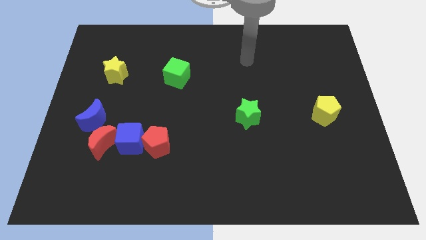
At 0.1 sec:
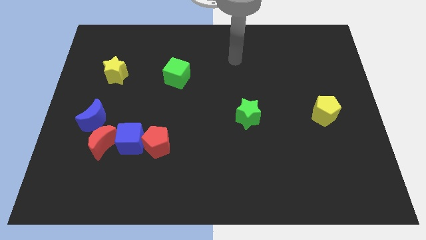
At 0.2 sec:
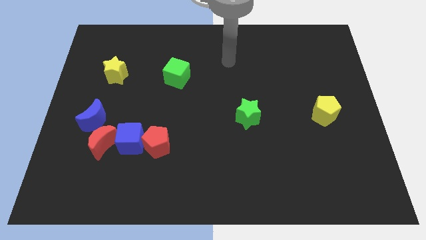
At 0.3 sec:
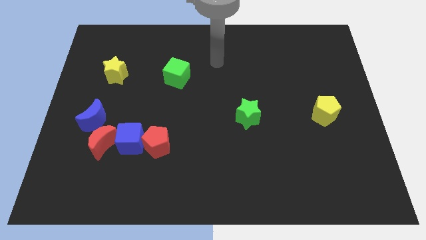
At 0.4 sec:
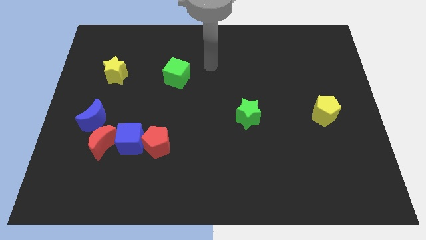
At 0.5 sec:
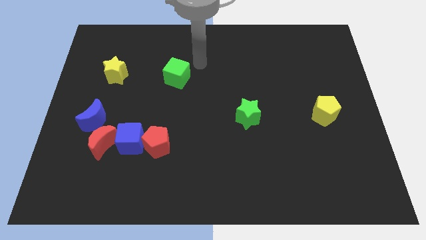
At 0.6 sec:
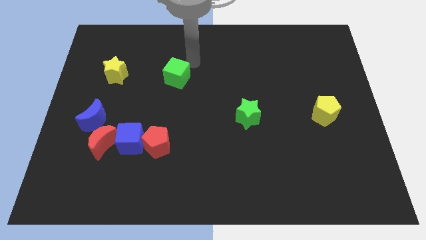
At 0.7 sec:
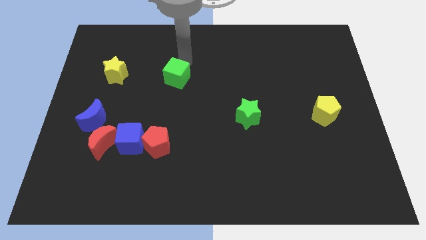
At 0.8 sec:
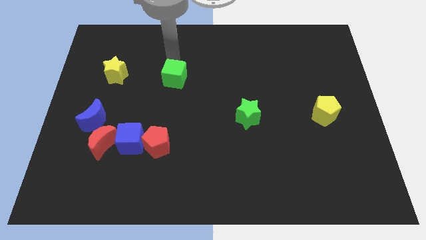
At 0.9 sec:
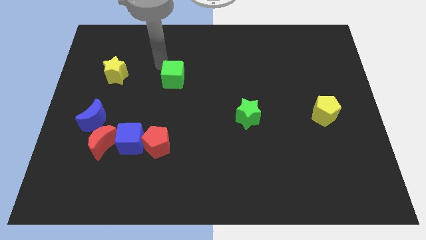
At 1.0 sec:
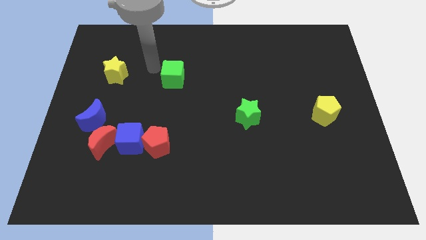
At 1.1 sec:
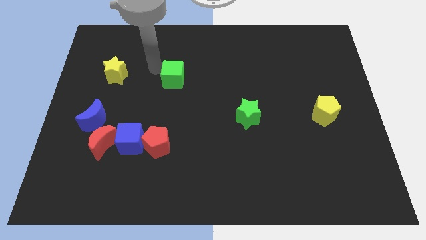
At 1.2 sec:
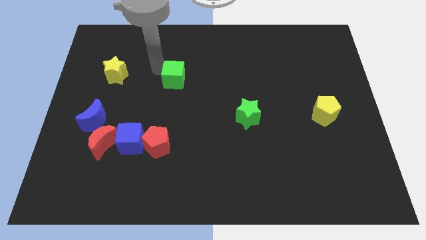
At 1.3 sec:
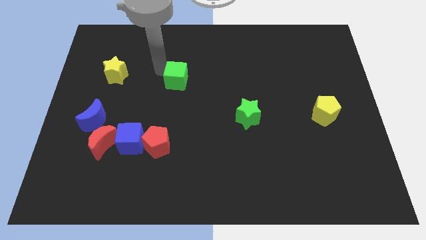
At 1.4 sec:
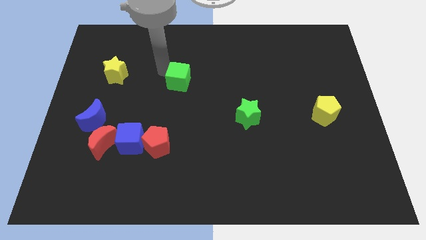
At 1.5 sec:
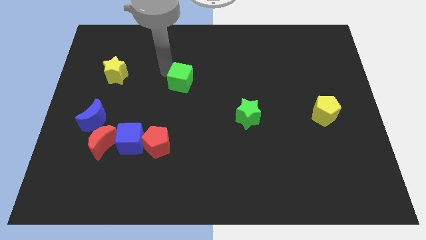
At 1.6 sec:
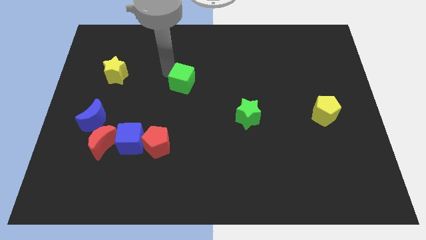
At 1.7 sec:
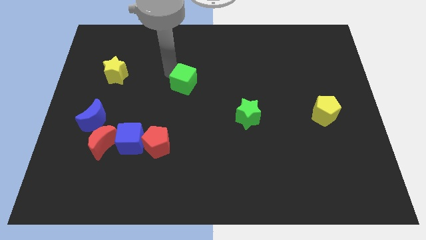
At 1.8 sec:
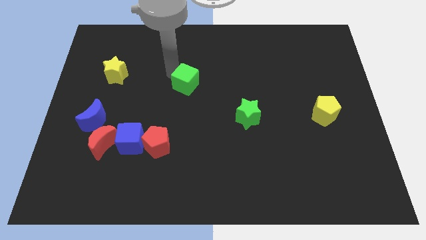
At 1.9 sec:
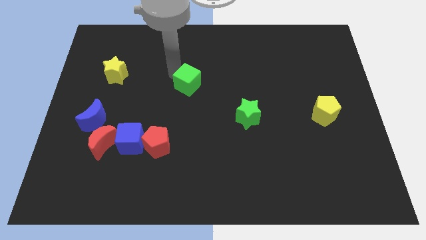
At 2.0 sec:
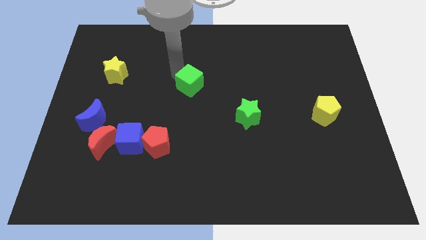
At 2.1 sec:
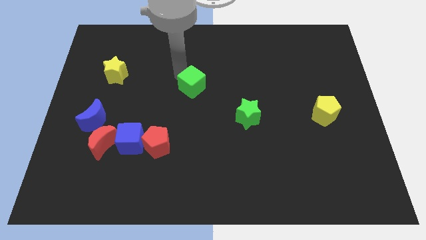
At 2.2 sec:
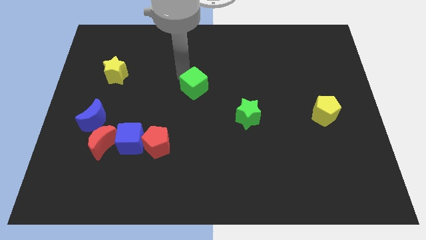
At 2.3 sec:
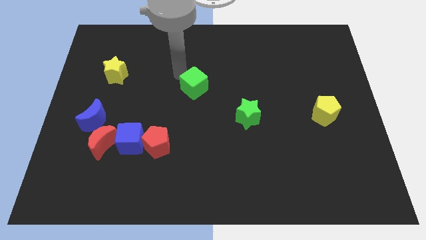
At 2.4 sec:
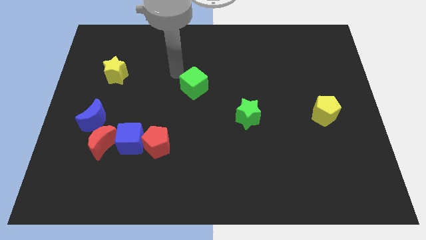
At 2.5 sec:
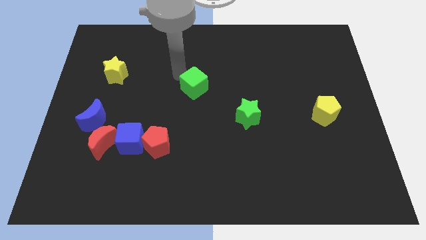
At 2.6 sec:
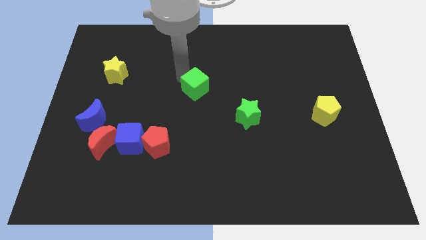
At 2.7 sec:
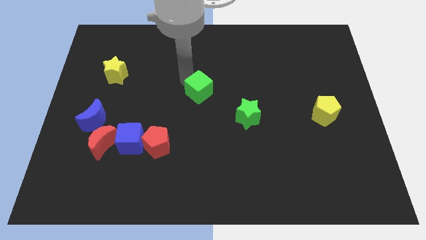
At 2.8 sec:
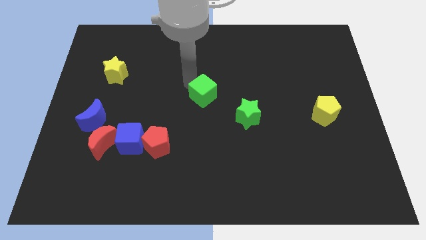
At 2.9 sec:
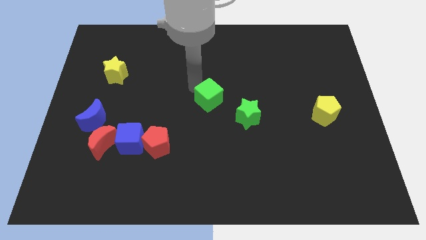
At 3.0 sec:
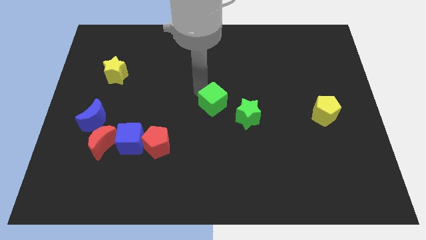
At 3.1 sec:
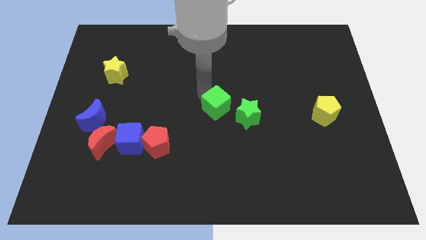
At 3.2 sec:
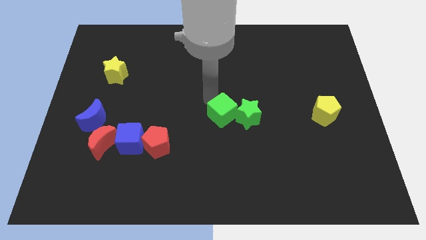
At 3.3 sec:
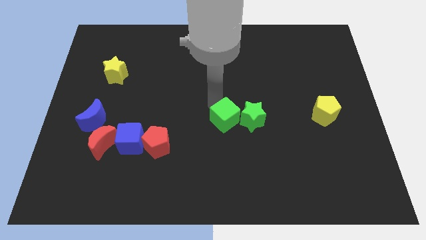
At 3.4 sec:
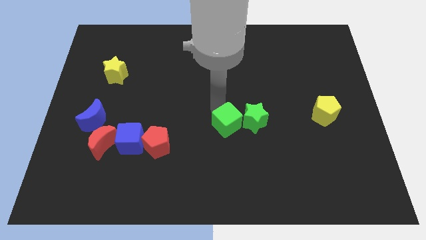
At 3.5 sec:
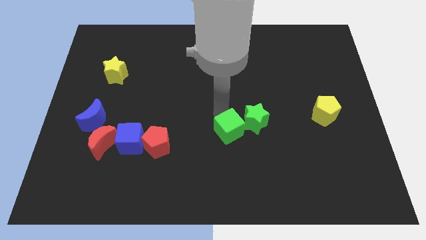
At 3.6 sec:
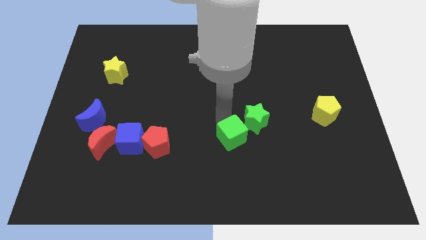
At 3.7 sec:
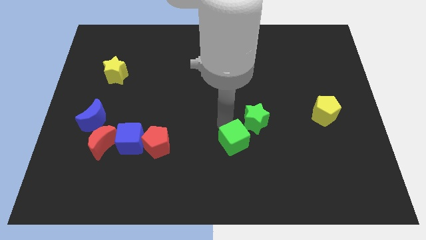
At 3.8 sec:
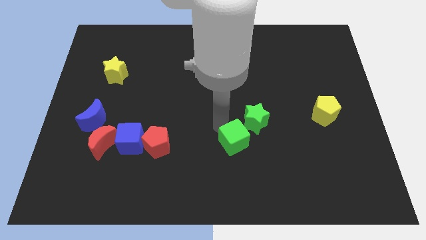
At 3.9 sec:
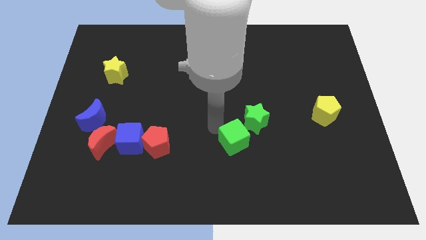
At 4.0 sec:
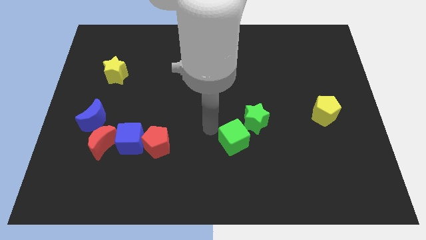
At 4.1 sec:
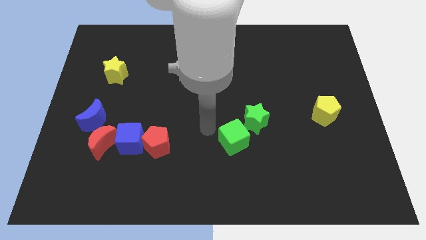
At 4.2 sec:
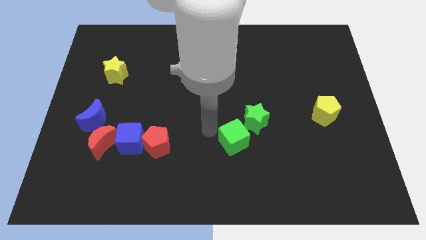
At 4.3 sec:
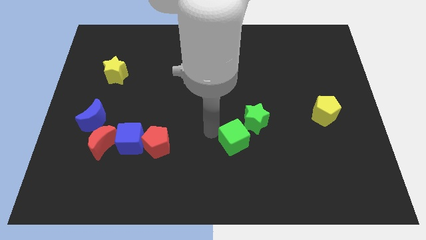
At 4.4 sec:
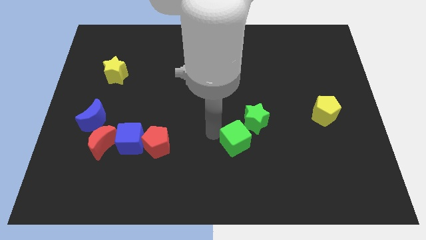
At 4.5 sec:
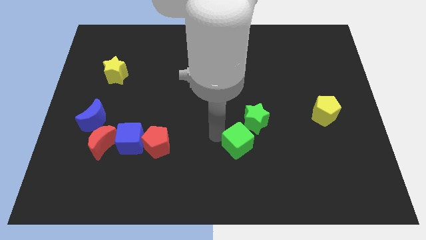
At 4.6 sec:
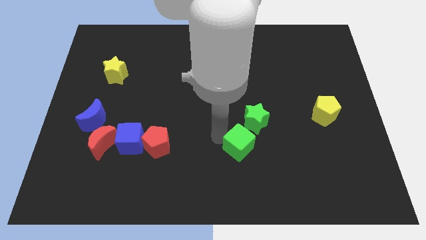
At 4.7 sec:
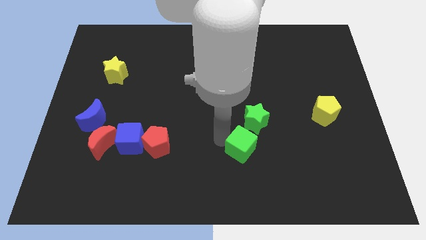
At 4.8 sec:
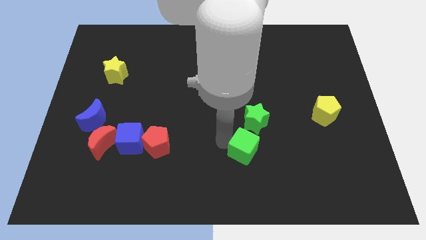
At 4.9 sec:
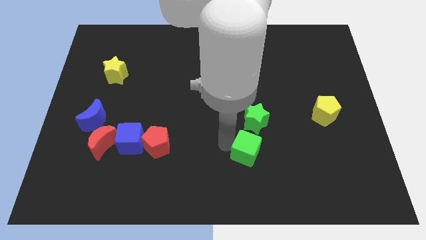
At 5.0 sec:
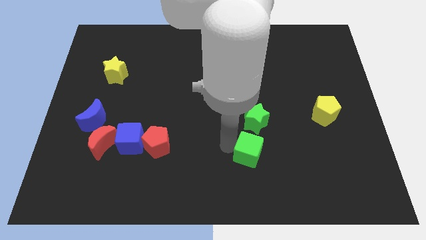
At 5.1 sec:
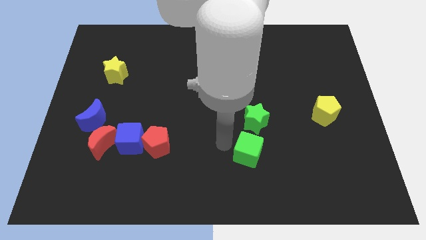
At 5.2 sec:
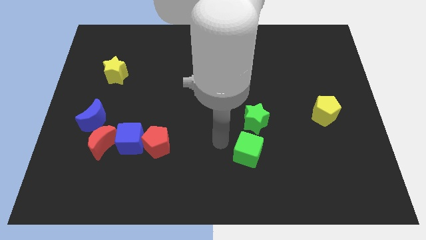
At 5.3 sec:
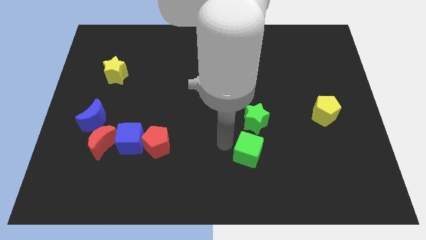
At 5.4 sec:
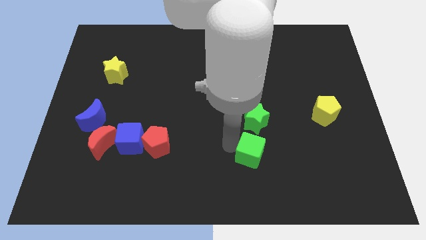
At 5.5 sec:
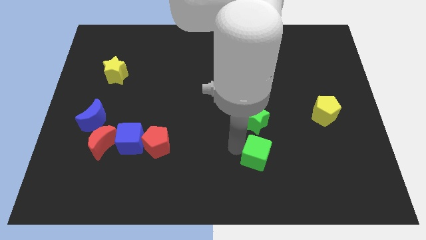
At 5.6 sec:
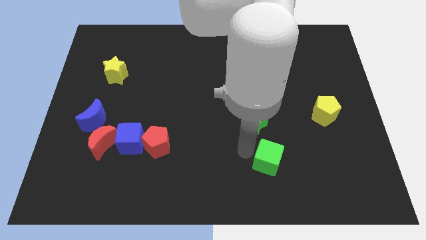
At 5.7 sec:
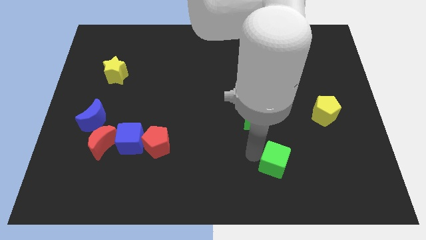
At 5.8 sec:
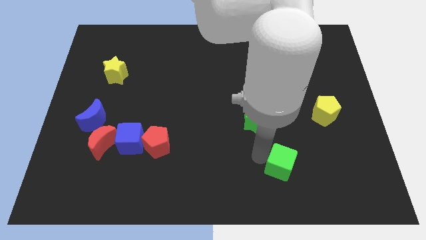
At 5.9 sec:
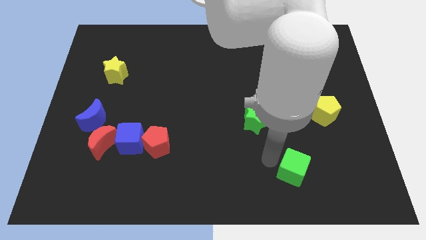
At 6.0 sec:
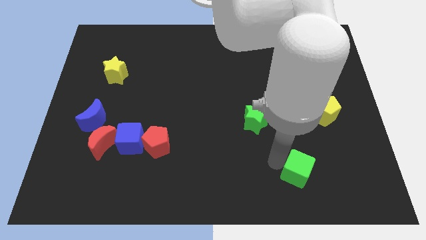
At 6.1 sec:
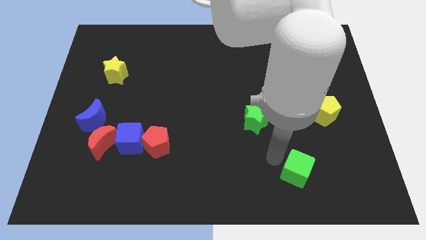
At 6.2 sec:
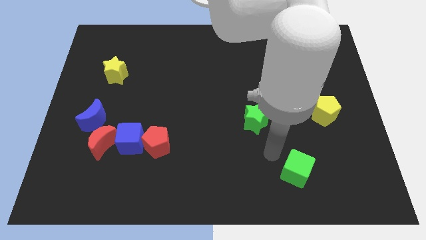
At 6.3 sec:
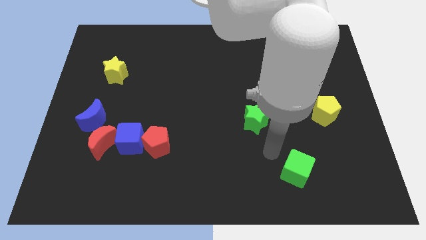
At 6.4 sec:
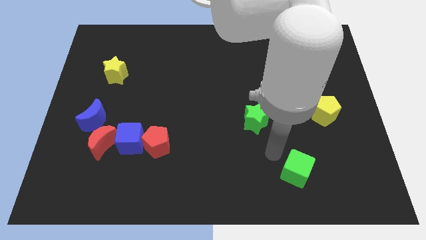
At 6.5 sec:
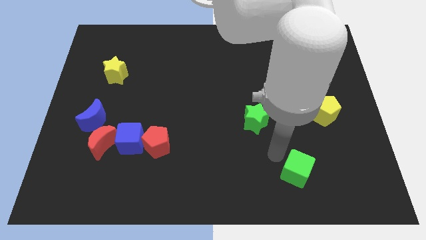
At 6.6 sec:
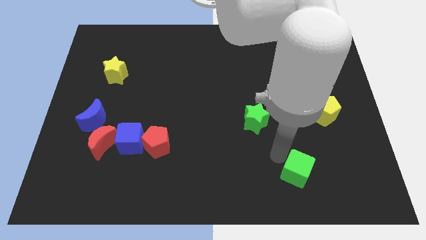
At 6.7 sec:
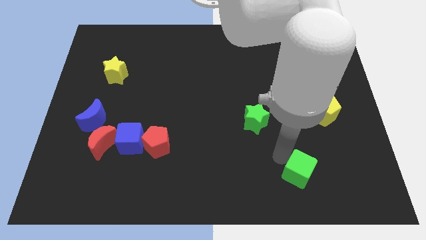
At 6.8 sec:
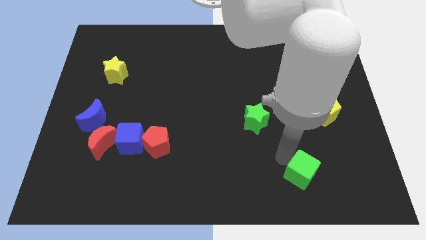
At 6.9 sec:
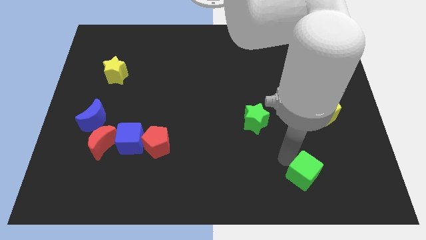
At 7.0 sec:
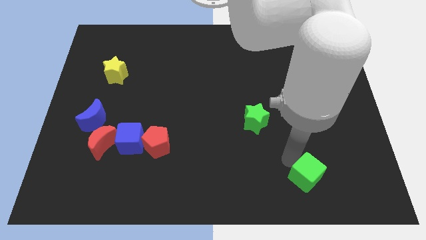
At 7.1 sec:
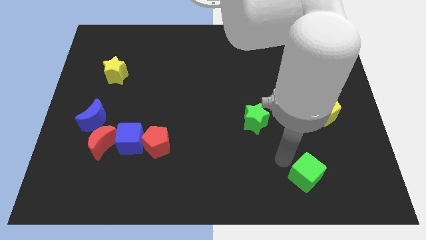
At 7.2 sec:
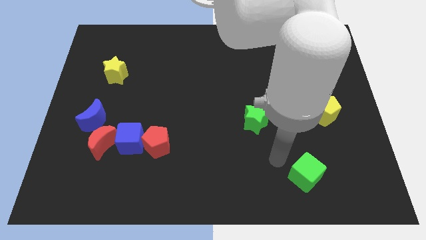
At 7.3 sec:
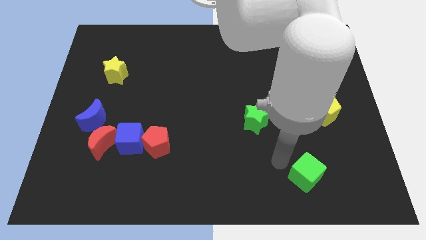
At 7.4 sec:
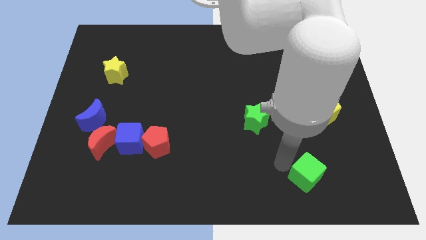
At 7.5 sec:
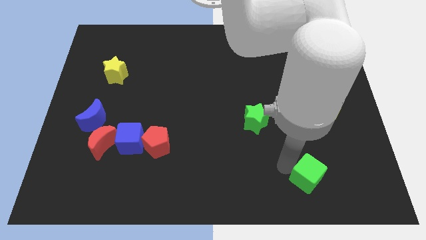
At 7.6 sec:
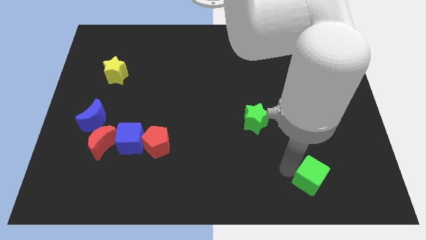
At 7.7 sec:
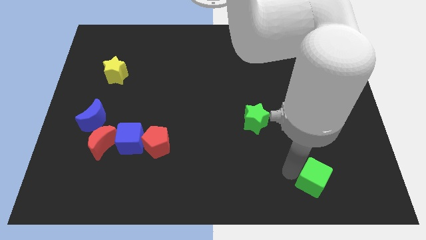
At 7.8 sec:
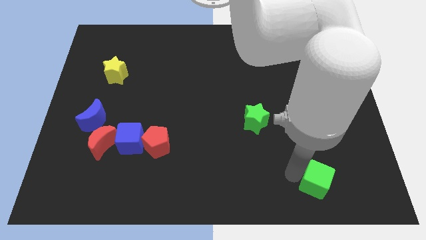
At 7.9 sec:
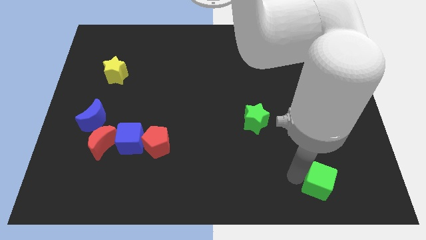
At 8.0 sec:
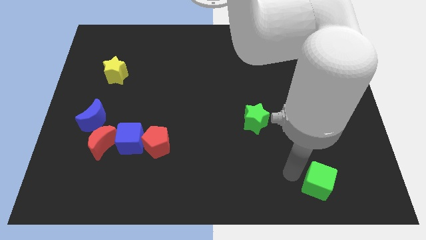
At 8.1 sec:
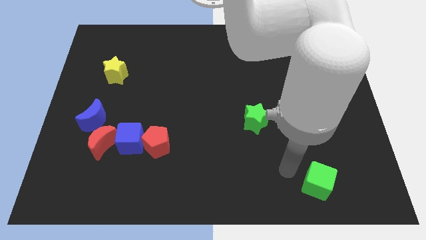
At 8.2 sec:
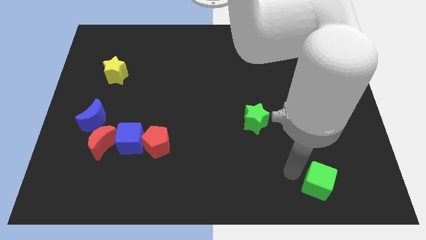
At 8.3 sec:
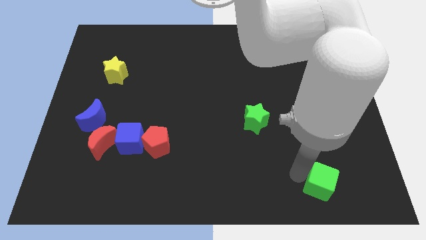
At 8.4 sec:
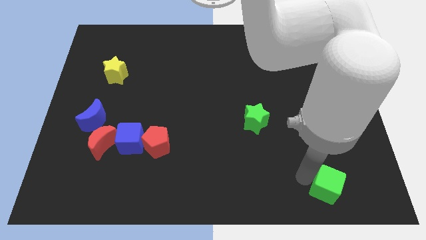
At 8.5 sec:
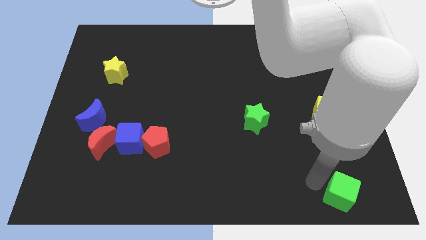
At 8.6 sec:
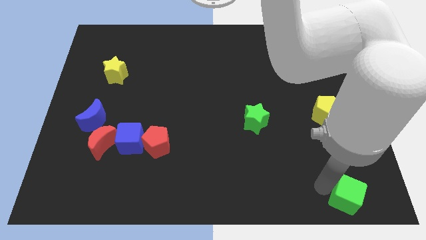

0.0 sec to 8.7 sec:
move the green cube to the lower right corner
